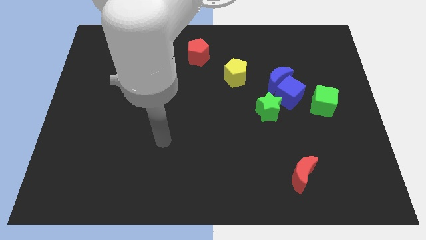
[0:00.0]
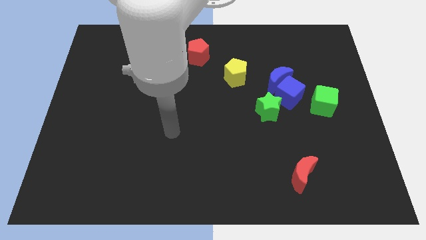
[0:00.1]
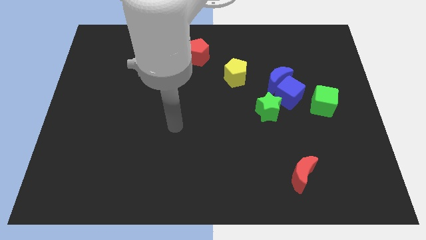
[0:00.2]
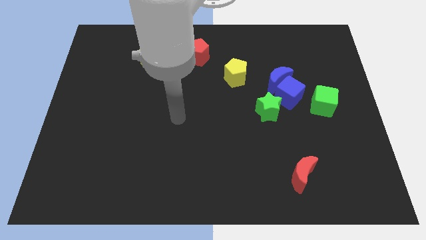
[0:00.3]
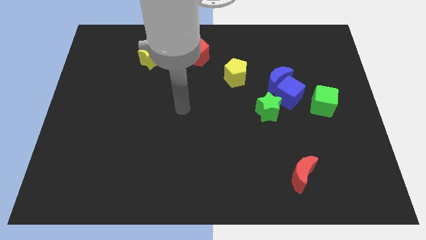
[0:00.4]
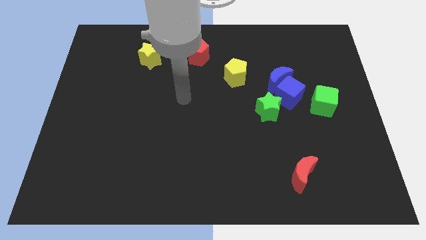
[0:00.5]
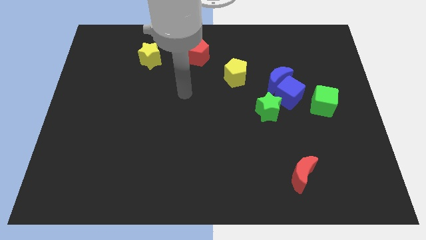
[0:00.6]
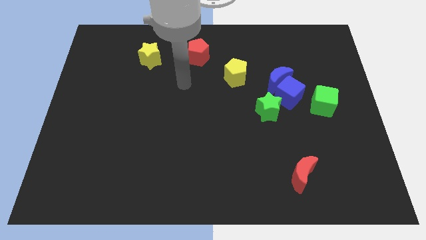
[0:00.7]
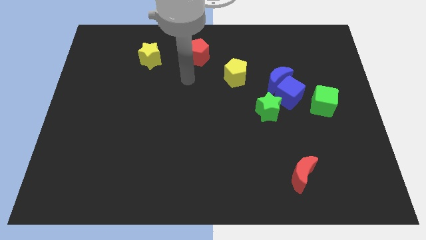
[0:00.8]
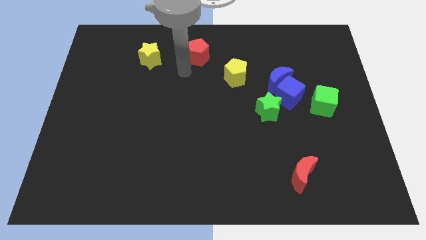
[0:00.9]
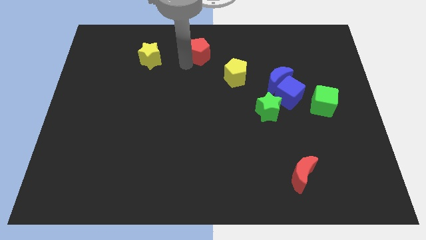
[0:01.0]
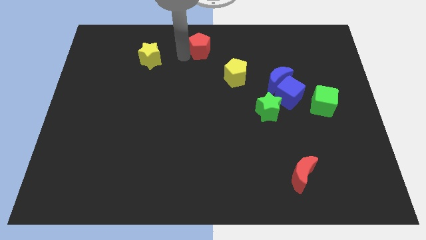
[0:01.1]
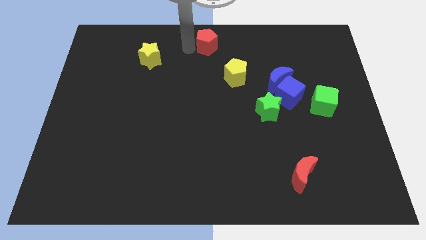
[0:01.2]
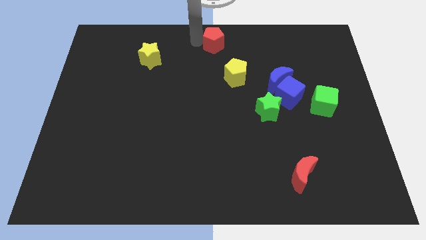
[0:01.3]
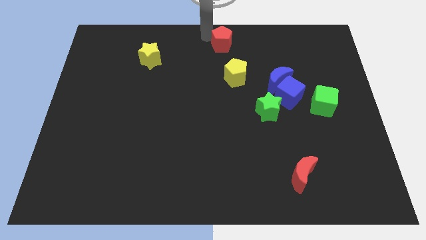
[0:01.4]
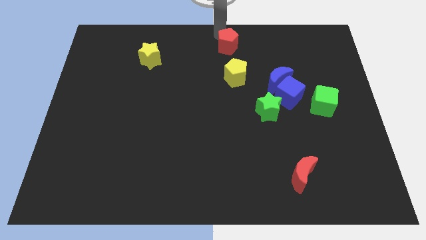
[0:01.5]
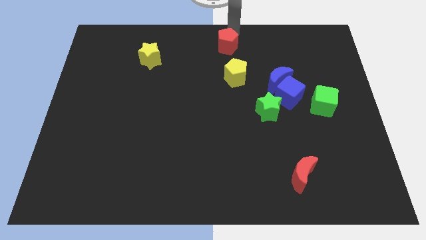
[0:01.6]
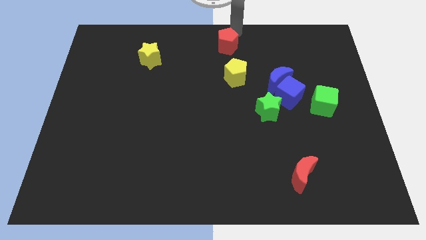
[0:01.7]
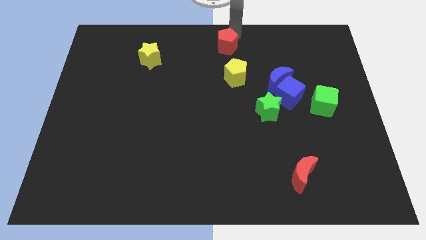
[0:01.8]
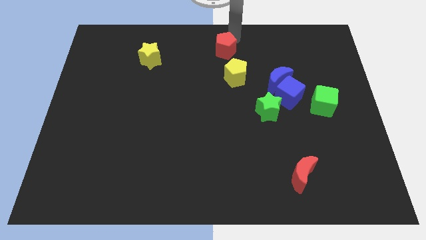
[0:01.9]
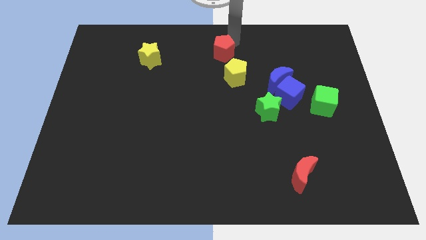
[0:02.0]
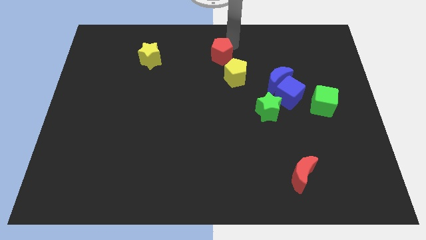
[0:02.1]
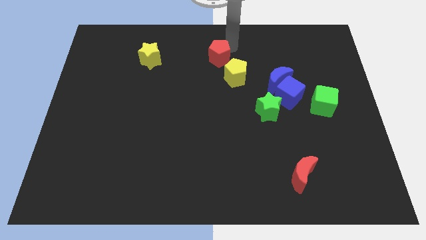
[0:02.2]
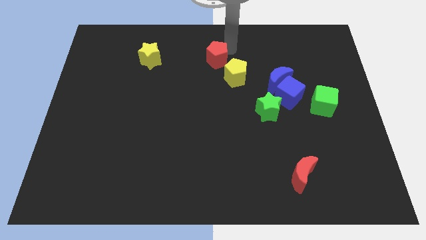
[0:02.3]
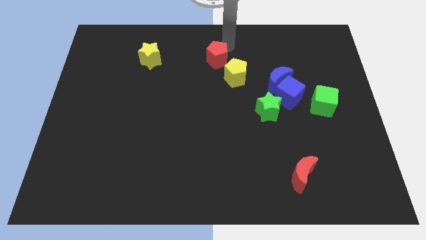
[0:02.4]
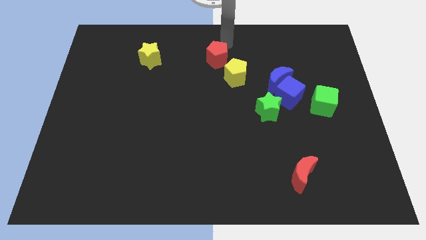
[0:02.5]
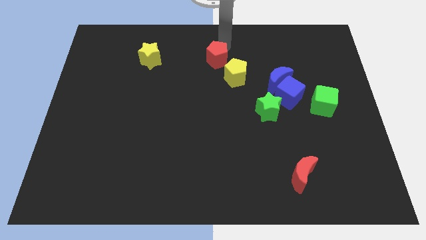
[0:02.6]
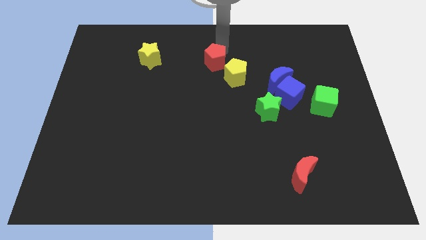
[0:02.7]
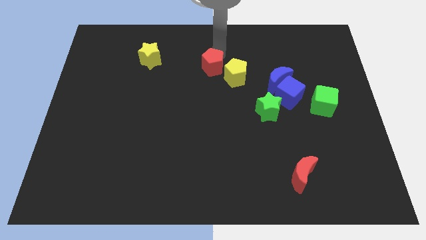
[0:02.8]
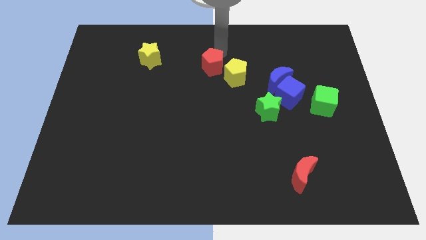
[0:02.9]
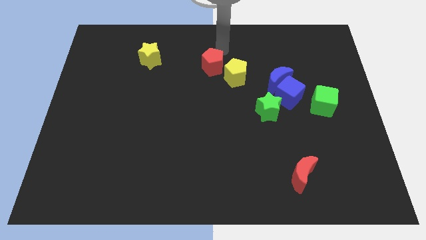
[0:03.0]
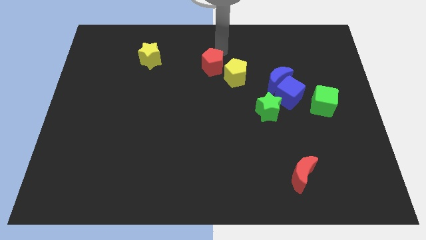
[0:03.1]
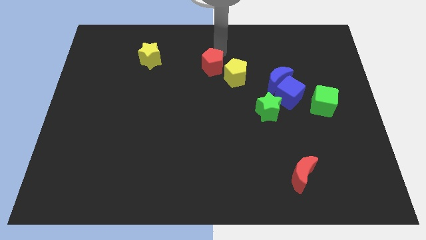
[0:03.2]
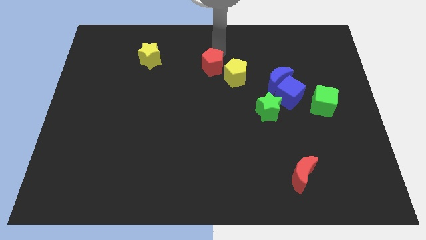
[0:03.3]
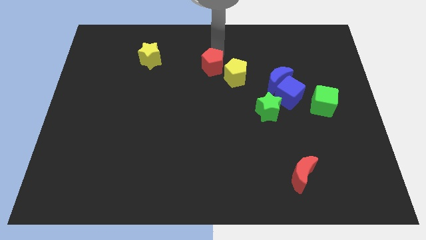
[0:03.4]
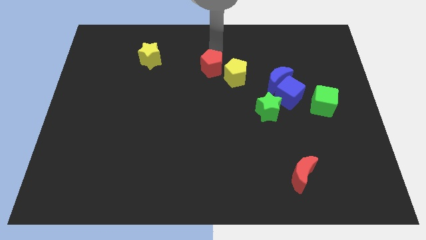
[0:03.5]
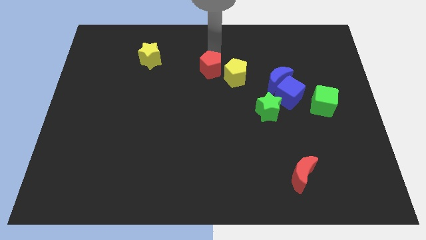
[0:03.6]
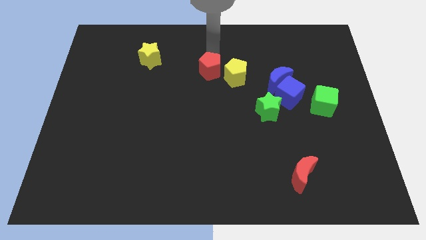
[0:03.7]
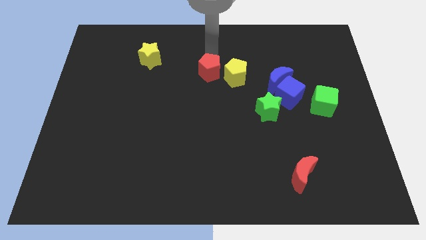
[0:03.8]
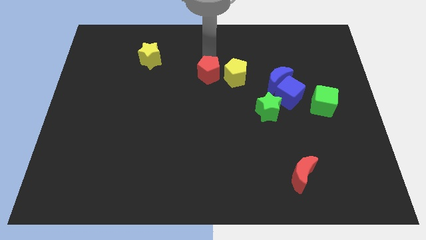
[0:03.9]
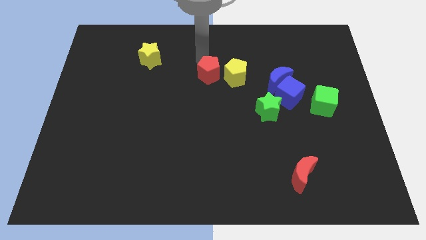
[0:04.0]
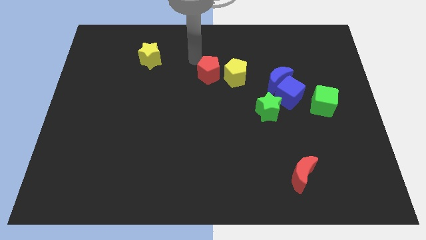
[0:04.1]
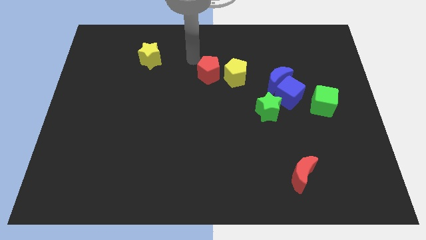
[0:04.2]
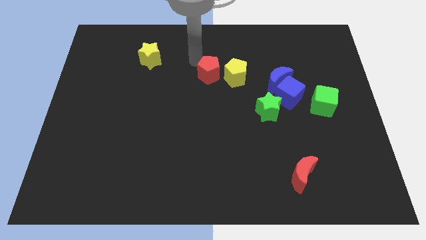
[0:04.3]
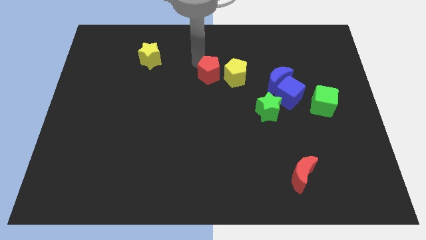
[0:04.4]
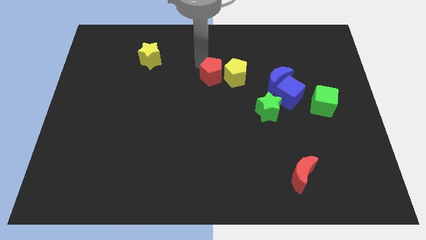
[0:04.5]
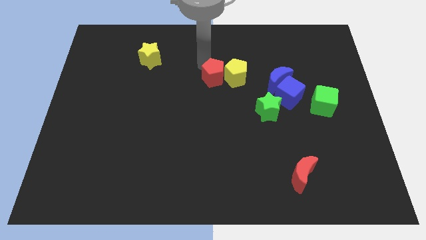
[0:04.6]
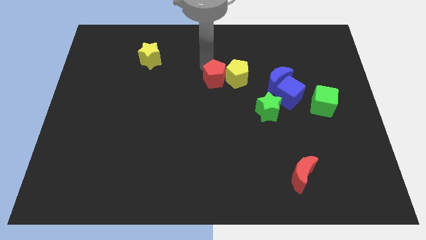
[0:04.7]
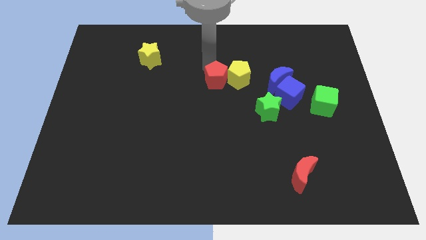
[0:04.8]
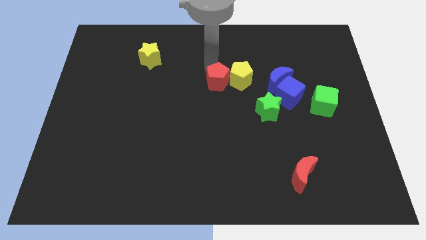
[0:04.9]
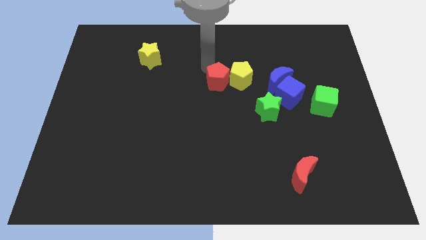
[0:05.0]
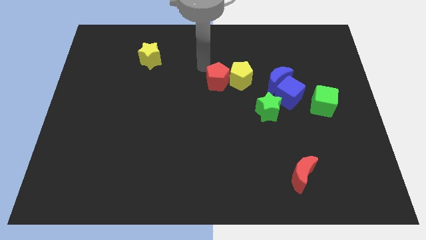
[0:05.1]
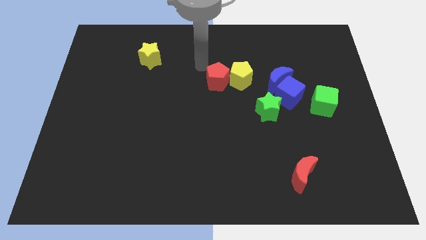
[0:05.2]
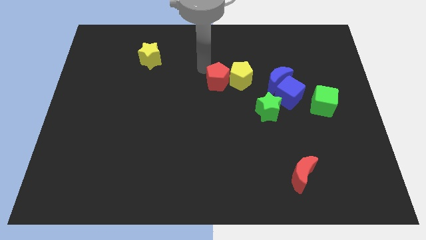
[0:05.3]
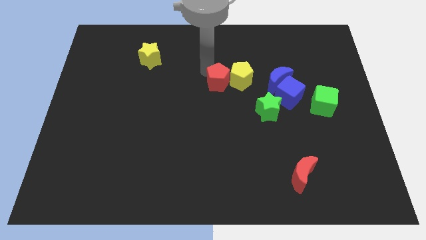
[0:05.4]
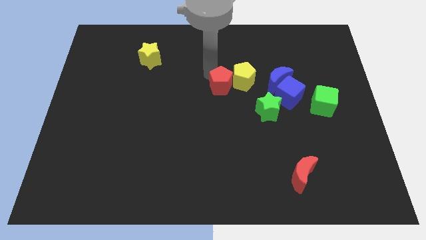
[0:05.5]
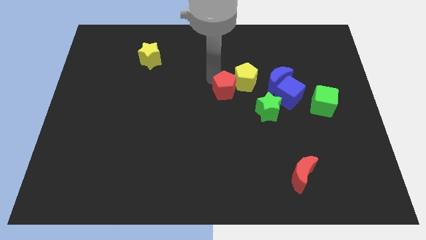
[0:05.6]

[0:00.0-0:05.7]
push the red pentagon diagonally up and to the left of the green star

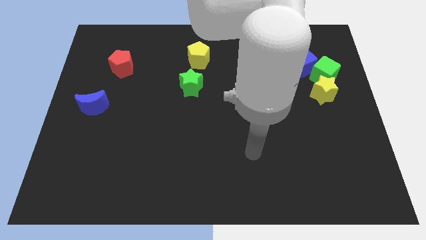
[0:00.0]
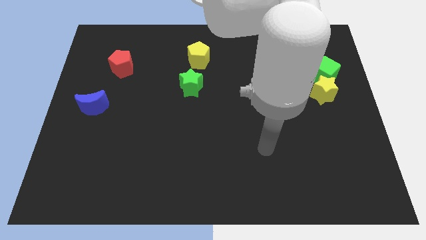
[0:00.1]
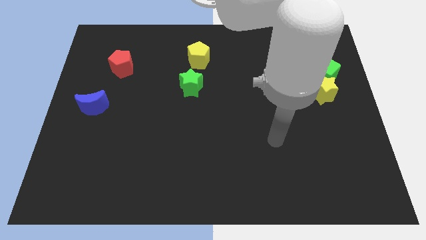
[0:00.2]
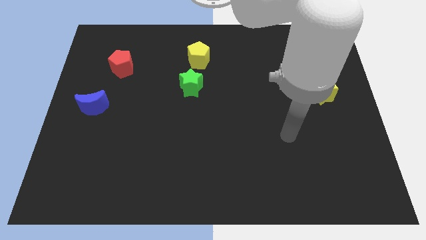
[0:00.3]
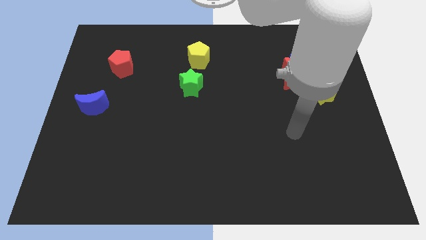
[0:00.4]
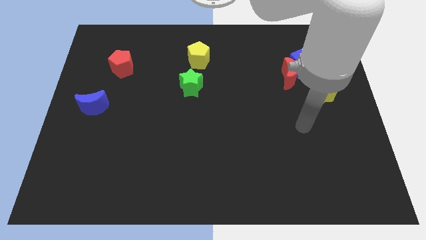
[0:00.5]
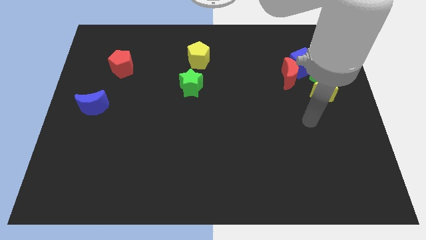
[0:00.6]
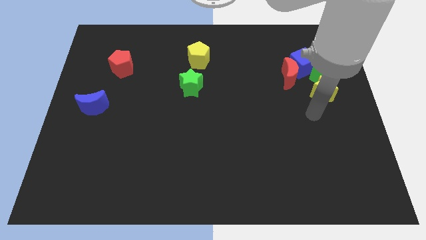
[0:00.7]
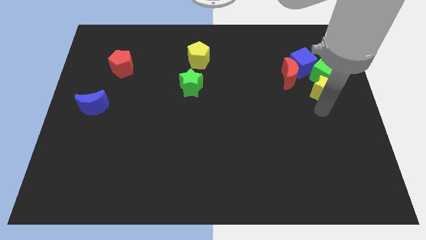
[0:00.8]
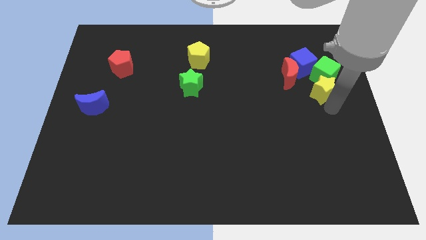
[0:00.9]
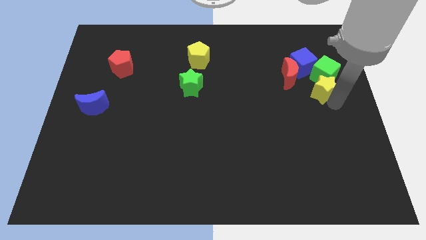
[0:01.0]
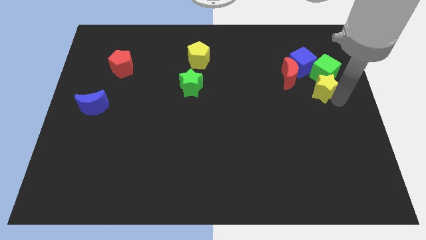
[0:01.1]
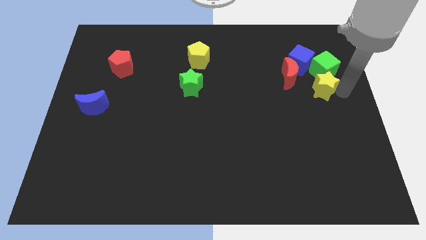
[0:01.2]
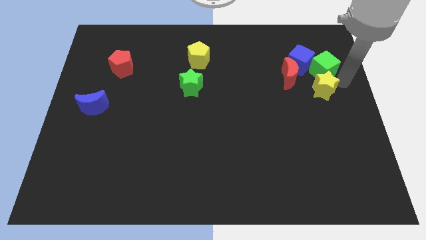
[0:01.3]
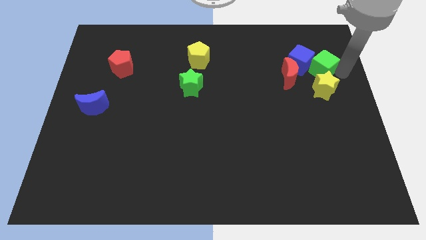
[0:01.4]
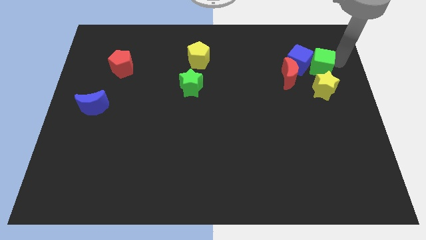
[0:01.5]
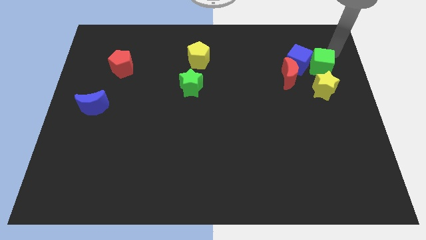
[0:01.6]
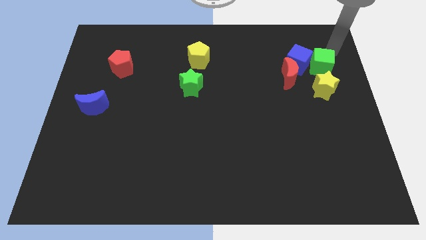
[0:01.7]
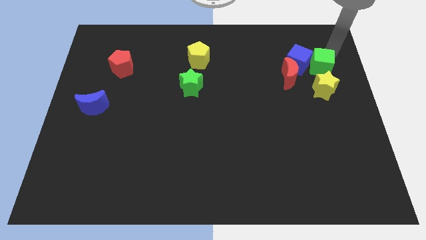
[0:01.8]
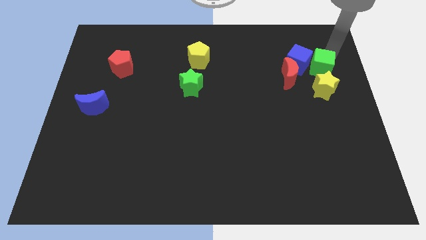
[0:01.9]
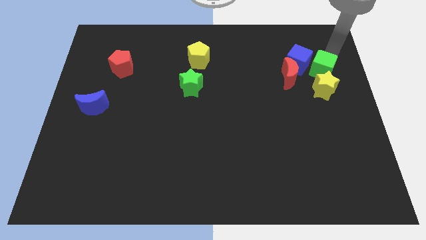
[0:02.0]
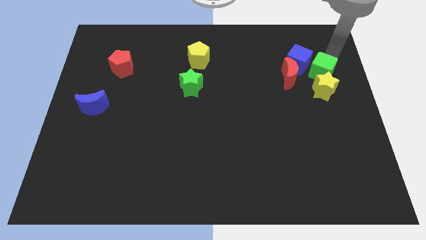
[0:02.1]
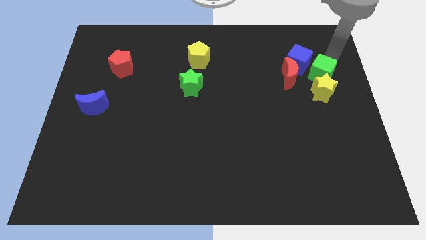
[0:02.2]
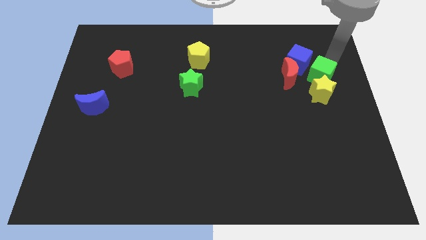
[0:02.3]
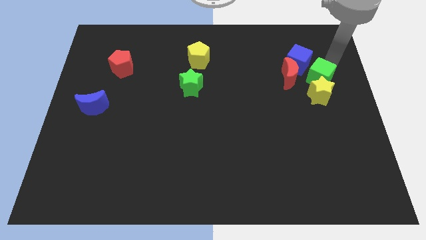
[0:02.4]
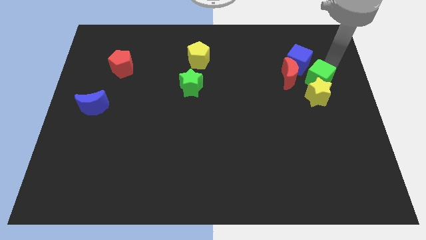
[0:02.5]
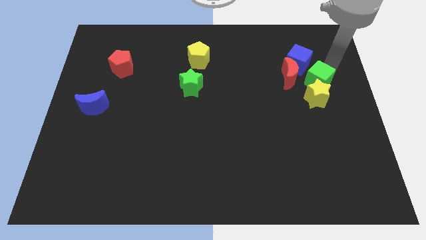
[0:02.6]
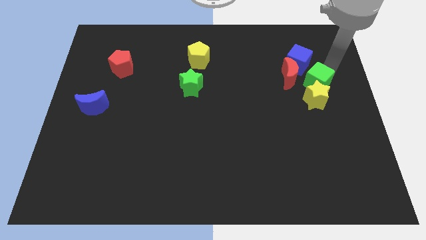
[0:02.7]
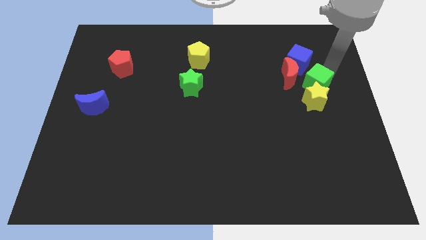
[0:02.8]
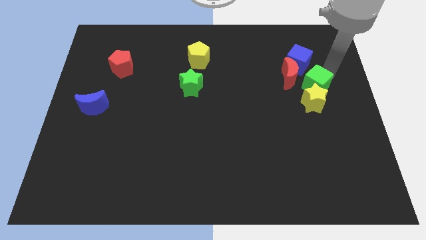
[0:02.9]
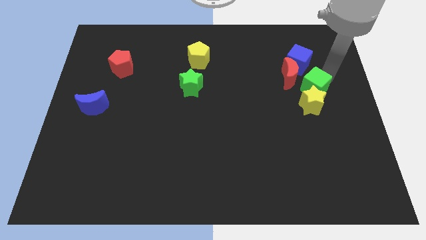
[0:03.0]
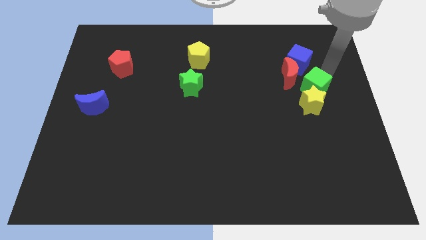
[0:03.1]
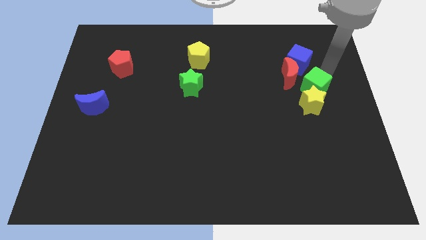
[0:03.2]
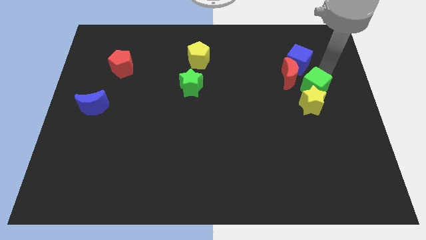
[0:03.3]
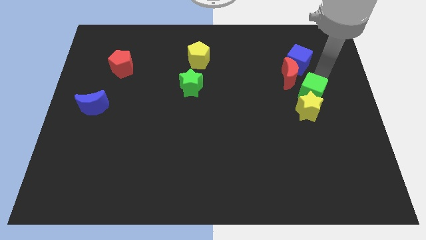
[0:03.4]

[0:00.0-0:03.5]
slide the green cube to the bottom side of the red moon
